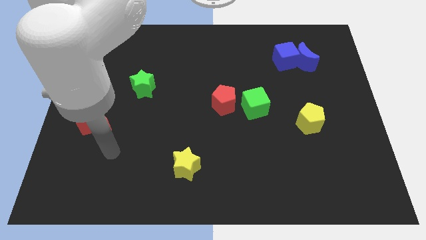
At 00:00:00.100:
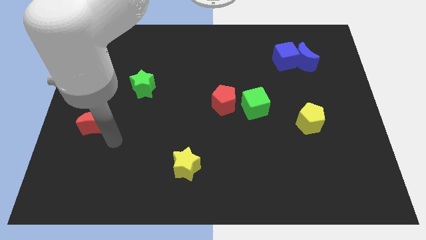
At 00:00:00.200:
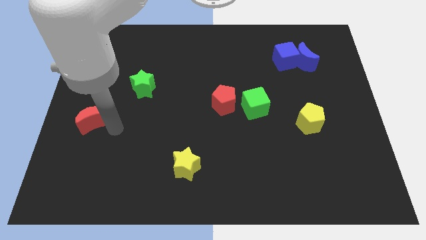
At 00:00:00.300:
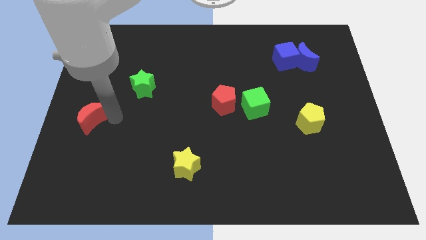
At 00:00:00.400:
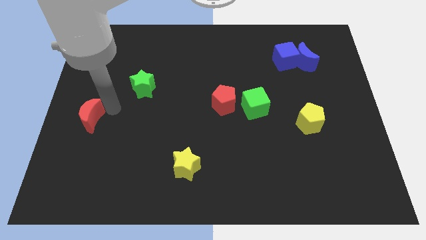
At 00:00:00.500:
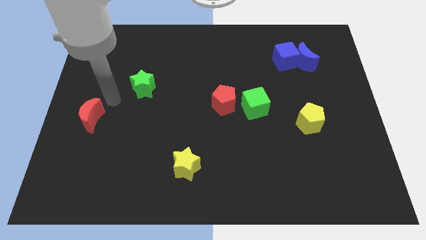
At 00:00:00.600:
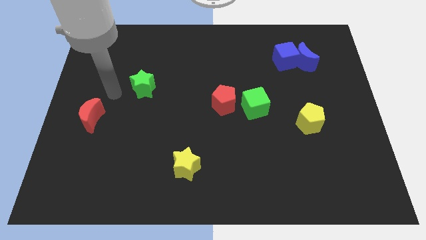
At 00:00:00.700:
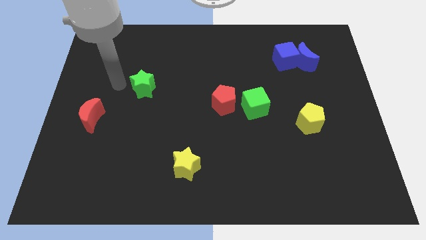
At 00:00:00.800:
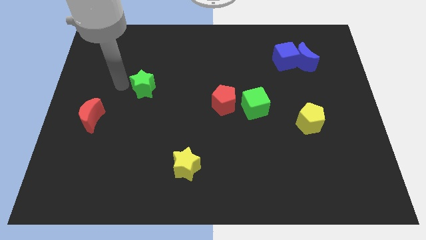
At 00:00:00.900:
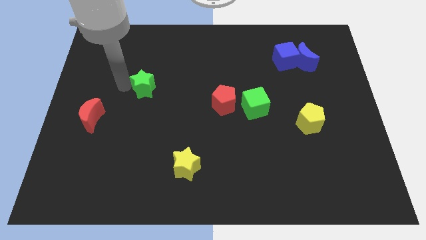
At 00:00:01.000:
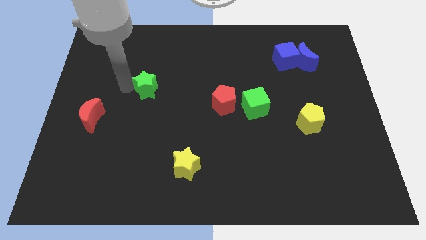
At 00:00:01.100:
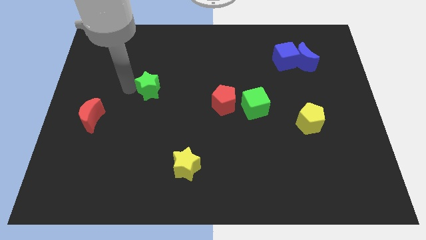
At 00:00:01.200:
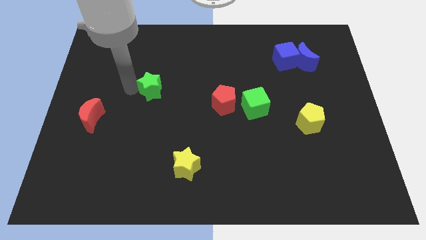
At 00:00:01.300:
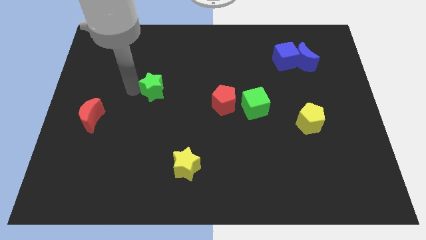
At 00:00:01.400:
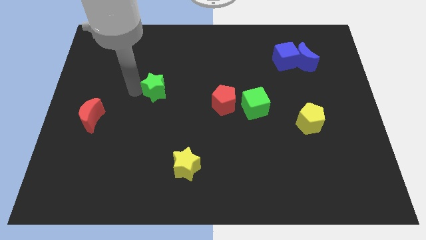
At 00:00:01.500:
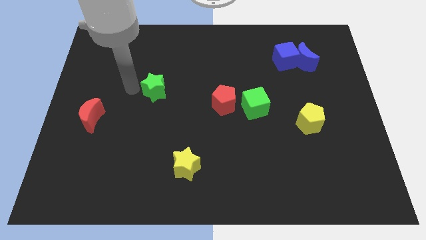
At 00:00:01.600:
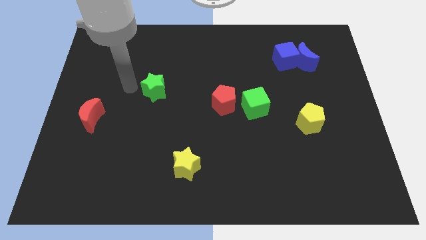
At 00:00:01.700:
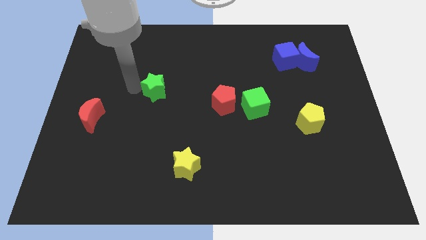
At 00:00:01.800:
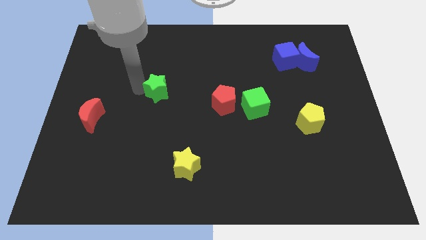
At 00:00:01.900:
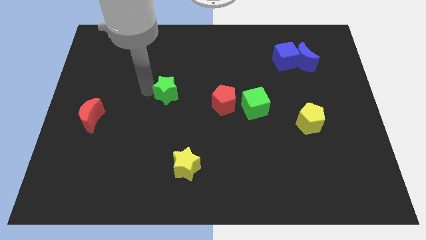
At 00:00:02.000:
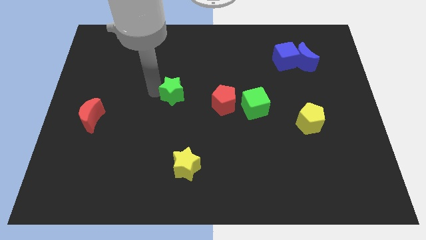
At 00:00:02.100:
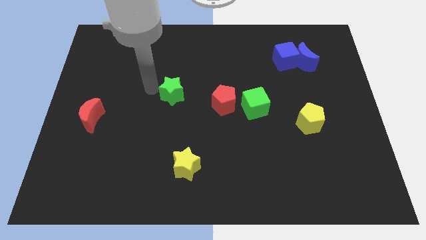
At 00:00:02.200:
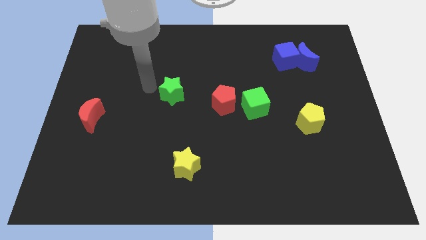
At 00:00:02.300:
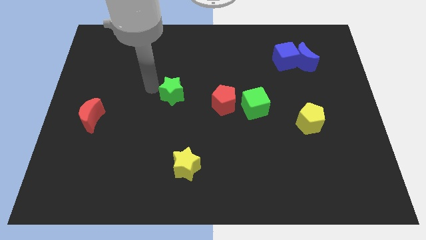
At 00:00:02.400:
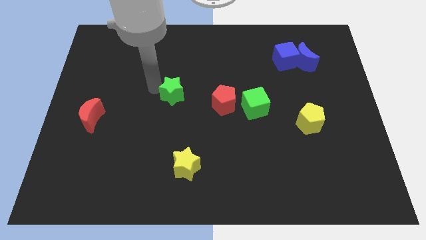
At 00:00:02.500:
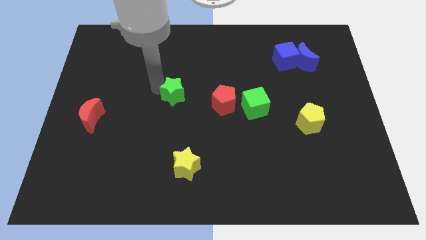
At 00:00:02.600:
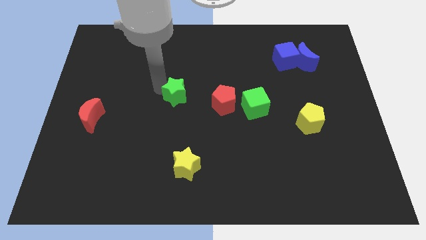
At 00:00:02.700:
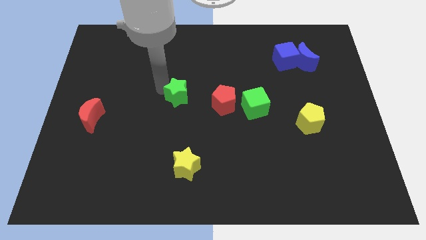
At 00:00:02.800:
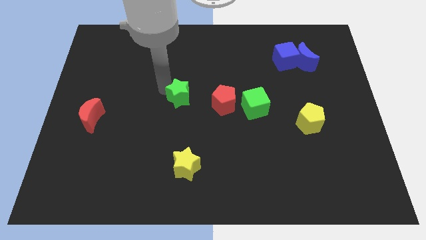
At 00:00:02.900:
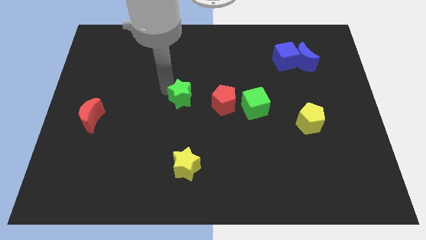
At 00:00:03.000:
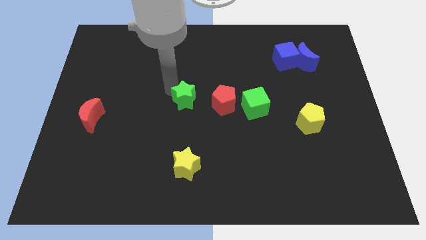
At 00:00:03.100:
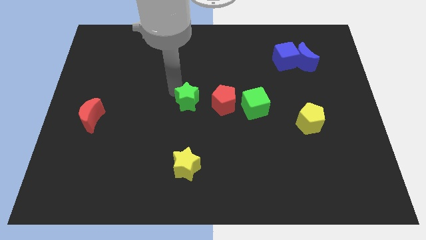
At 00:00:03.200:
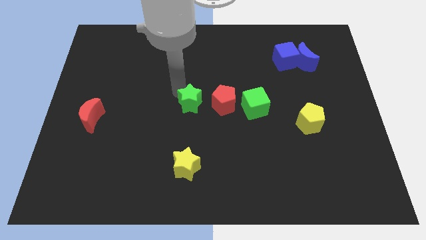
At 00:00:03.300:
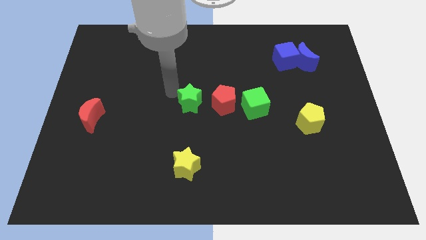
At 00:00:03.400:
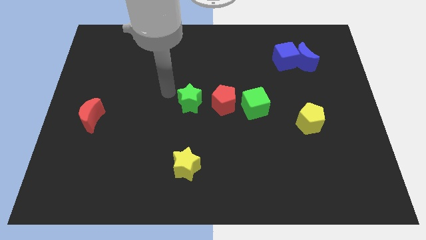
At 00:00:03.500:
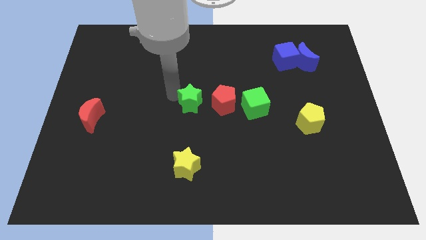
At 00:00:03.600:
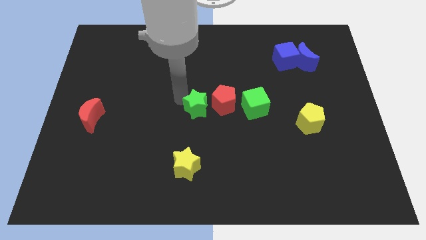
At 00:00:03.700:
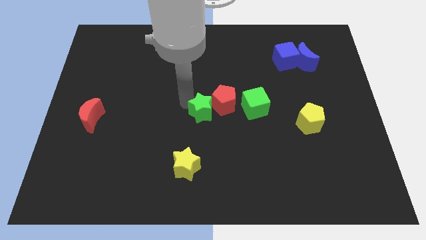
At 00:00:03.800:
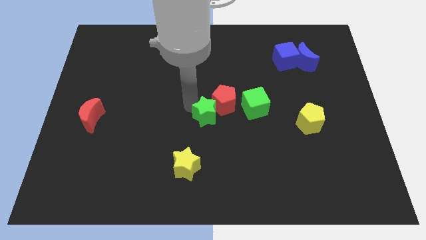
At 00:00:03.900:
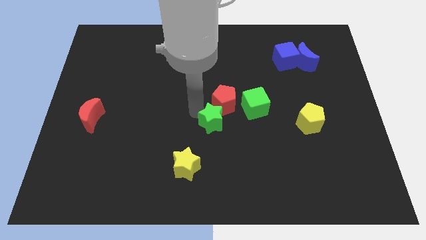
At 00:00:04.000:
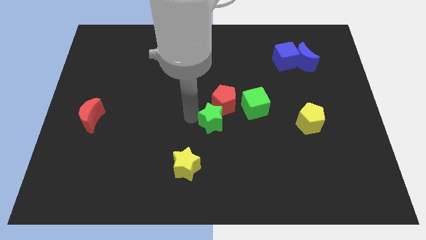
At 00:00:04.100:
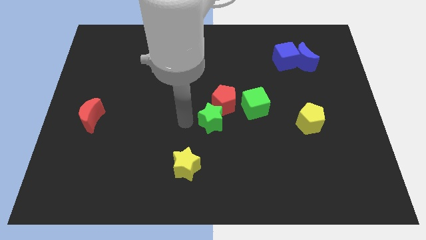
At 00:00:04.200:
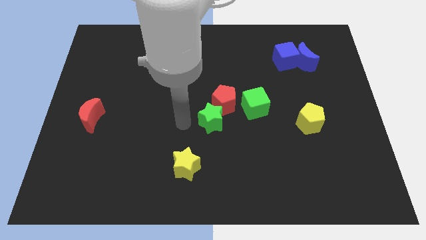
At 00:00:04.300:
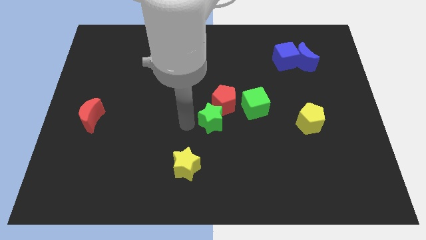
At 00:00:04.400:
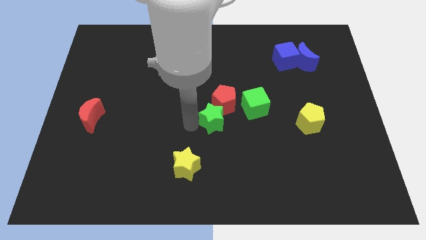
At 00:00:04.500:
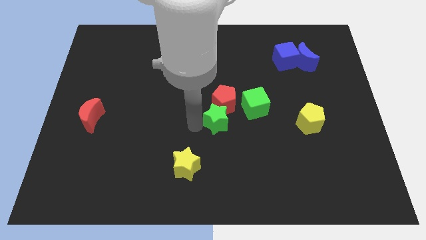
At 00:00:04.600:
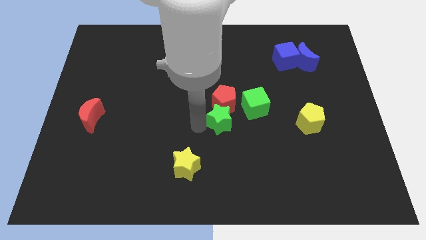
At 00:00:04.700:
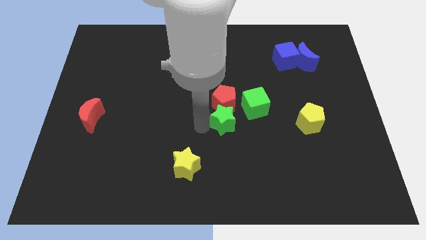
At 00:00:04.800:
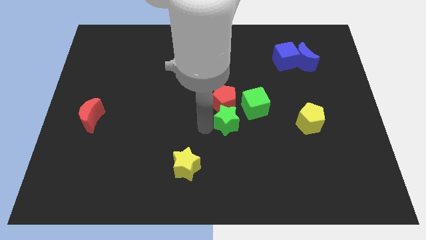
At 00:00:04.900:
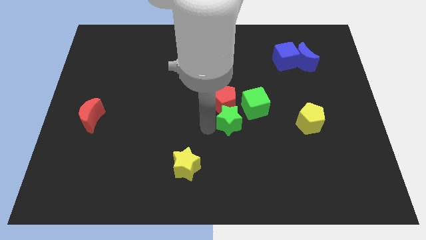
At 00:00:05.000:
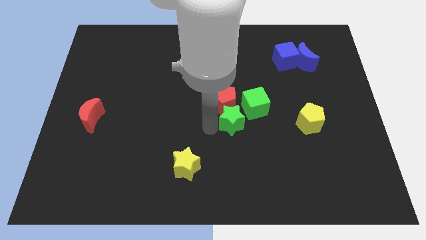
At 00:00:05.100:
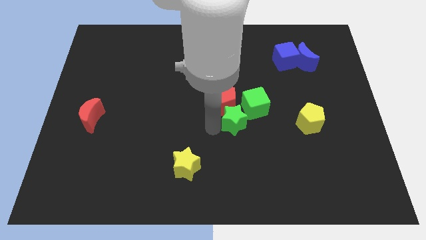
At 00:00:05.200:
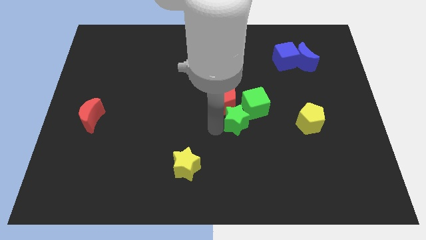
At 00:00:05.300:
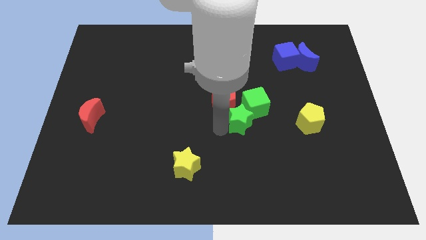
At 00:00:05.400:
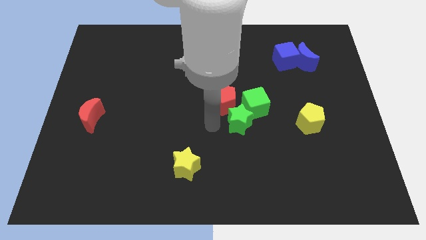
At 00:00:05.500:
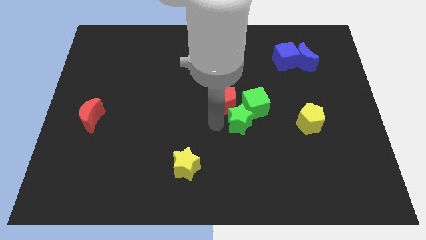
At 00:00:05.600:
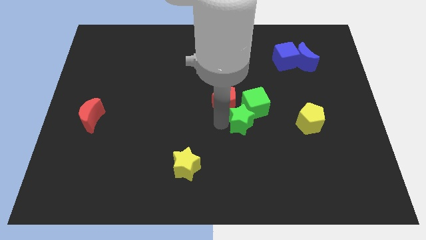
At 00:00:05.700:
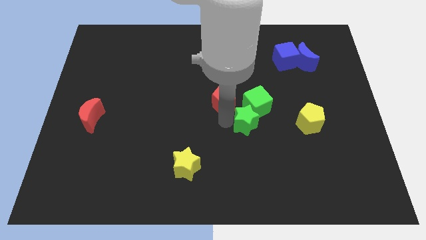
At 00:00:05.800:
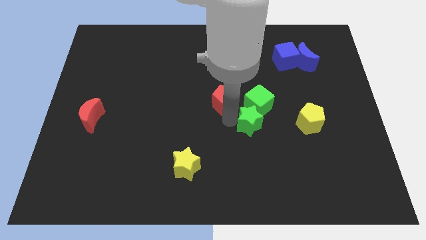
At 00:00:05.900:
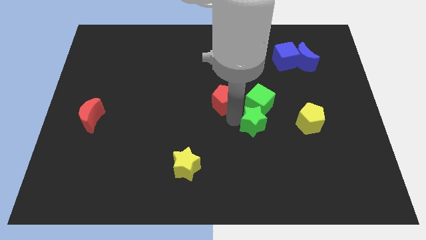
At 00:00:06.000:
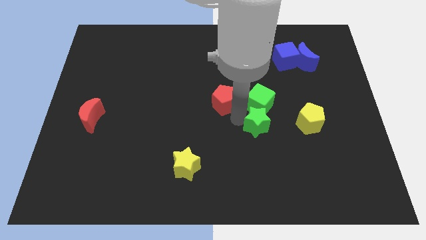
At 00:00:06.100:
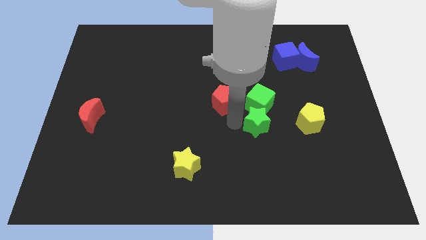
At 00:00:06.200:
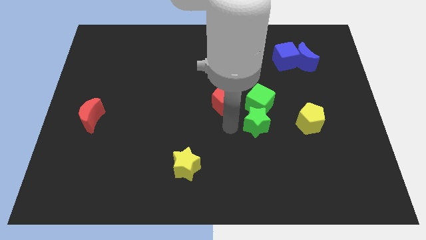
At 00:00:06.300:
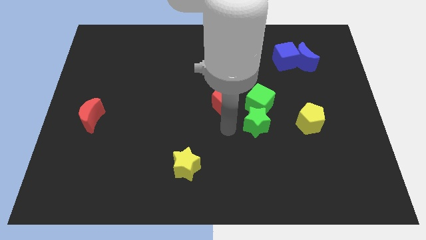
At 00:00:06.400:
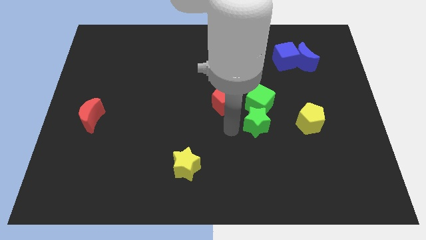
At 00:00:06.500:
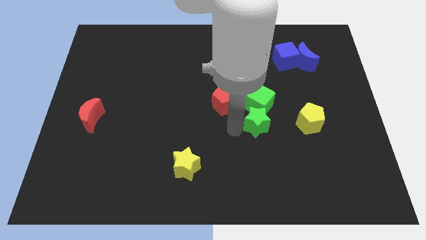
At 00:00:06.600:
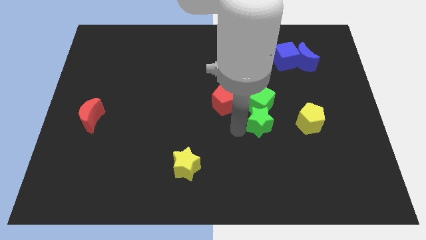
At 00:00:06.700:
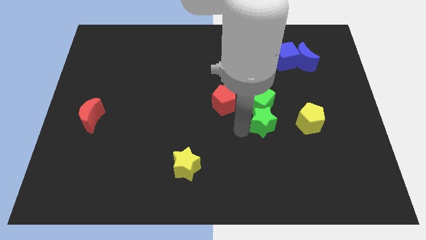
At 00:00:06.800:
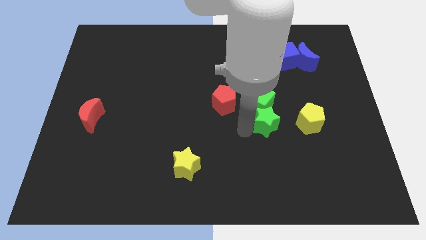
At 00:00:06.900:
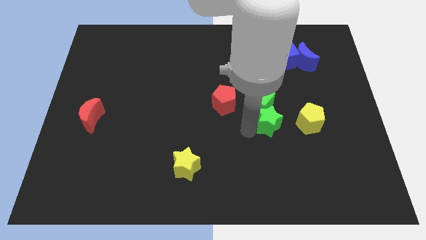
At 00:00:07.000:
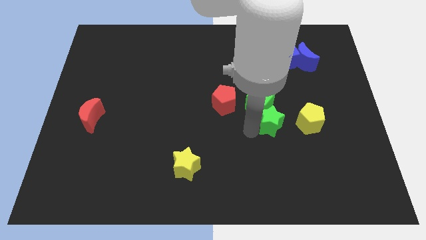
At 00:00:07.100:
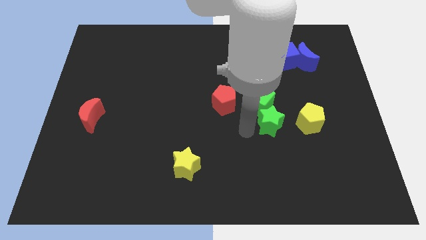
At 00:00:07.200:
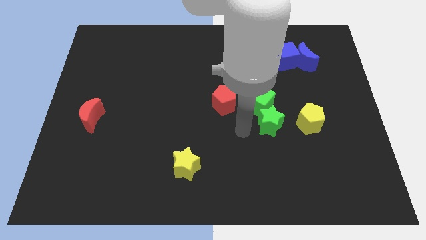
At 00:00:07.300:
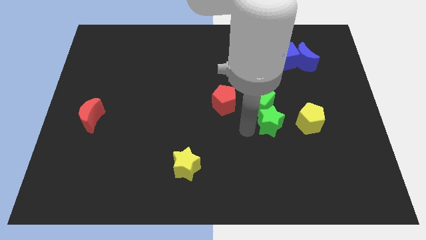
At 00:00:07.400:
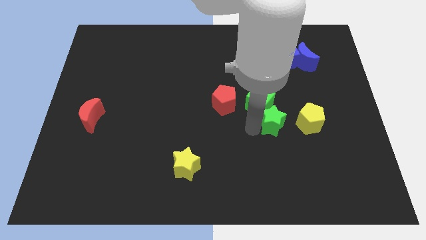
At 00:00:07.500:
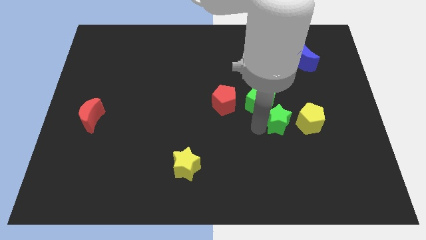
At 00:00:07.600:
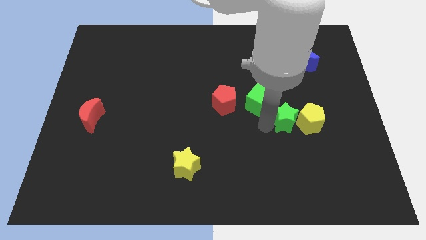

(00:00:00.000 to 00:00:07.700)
move the green star next to the yellow pentagon
